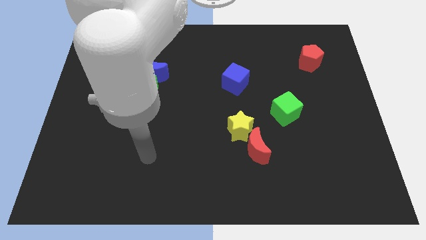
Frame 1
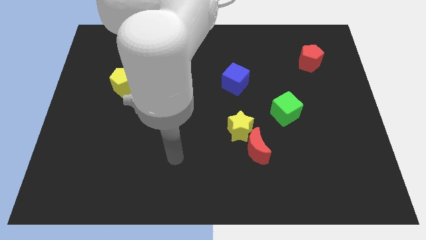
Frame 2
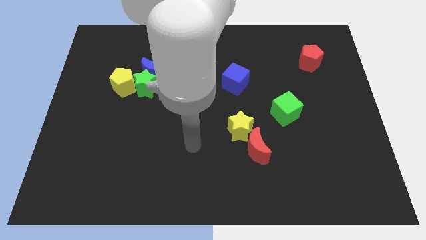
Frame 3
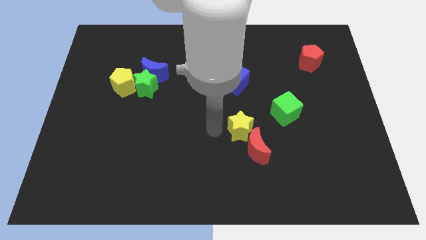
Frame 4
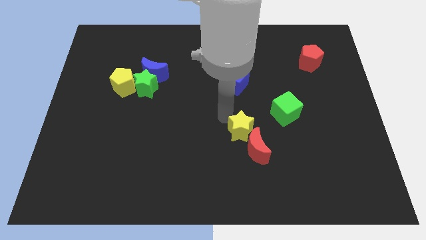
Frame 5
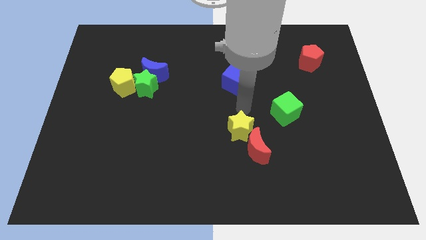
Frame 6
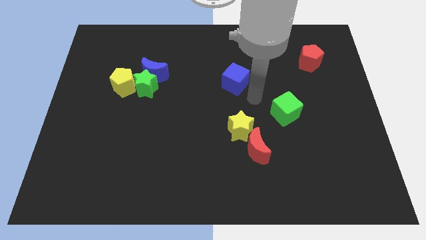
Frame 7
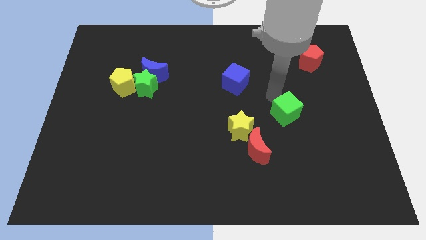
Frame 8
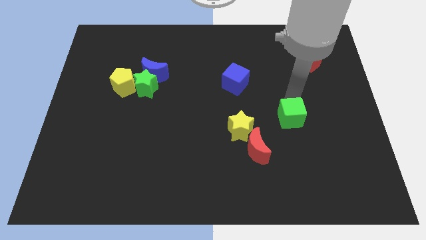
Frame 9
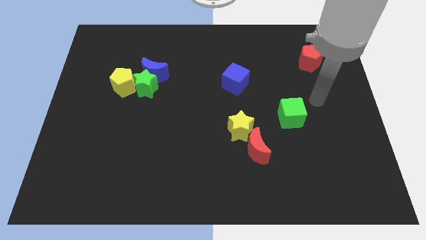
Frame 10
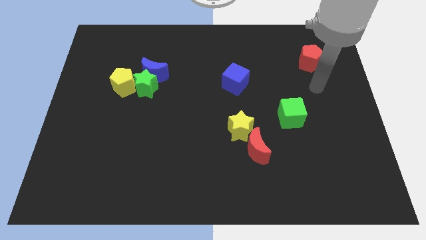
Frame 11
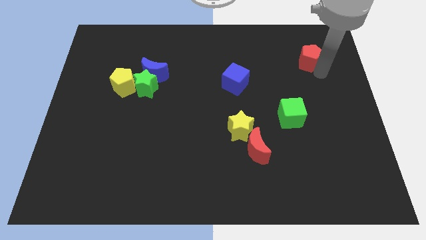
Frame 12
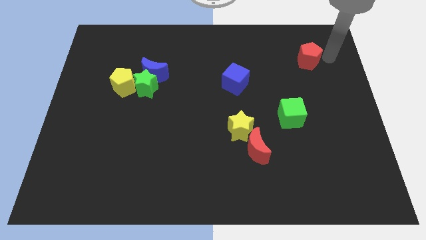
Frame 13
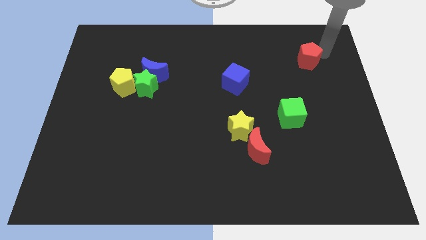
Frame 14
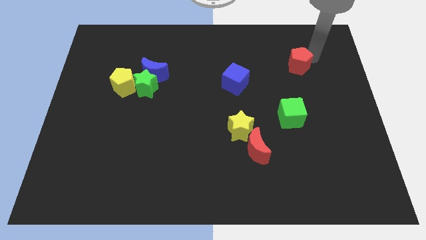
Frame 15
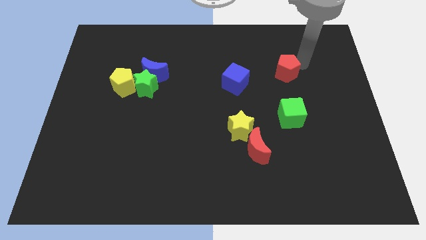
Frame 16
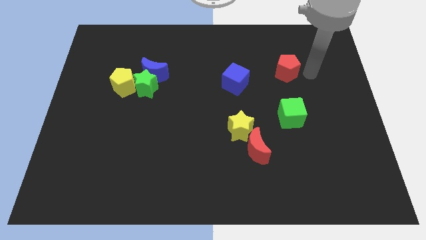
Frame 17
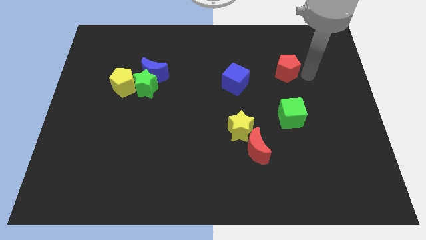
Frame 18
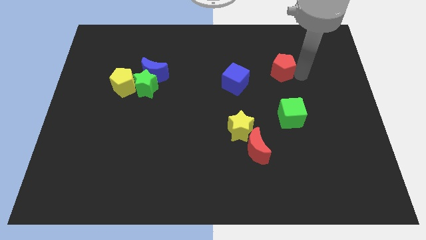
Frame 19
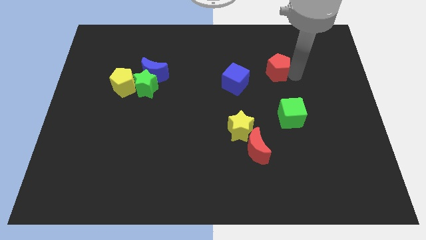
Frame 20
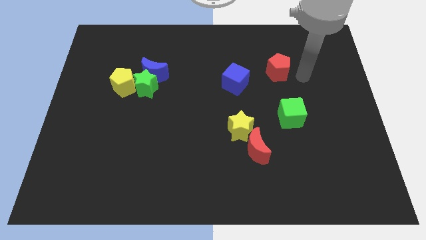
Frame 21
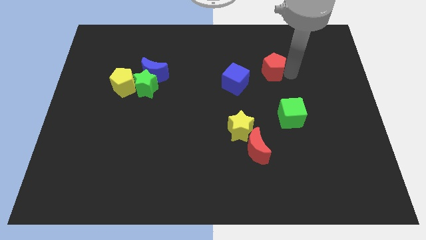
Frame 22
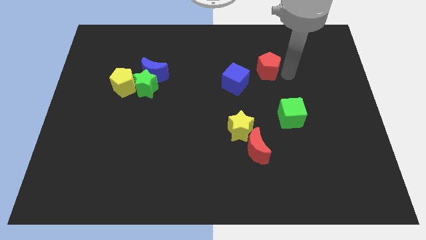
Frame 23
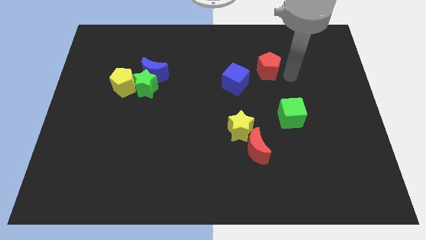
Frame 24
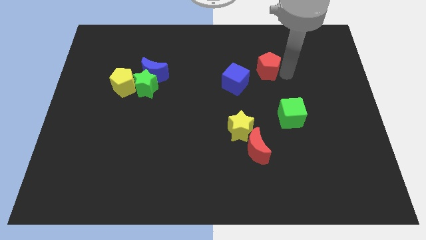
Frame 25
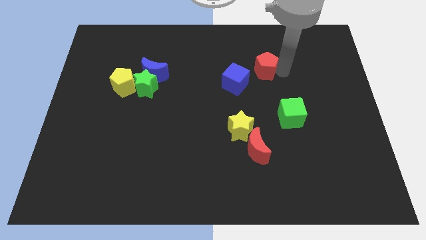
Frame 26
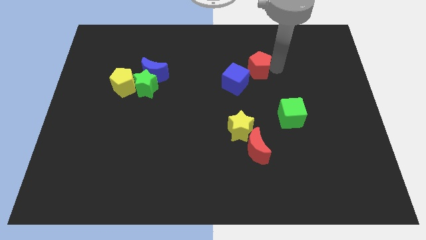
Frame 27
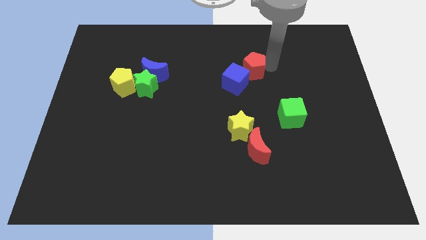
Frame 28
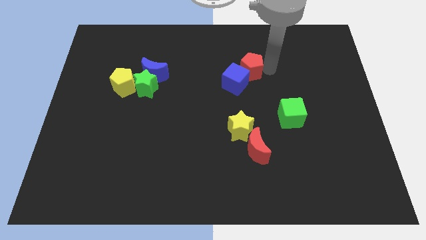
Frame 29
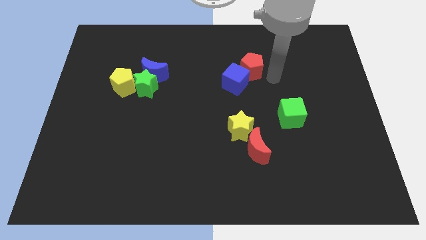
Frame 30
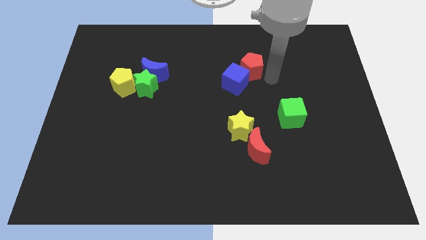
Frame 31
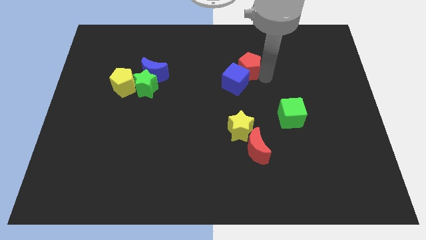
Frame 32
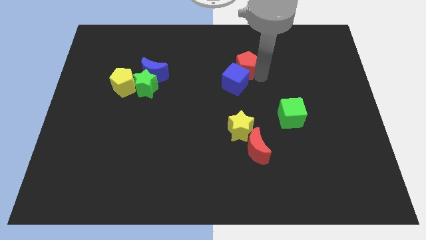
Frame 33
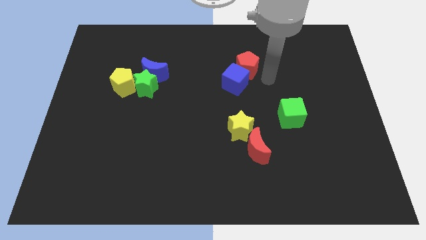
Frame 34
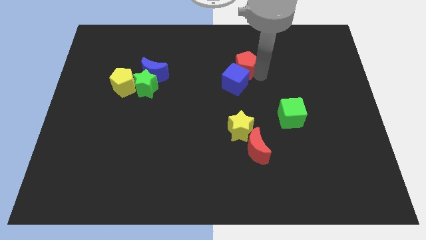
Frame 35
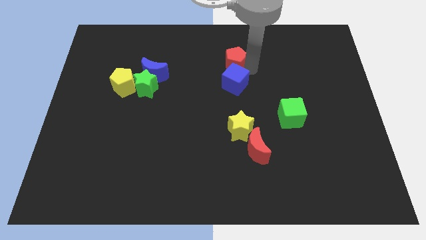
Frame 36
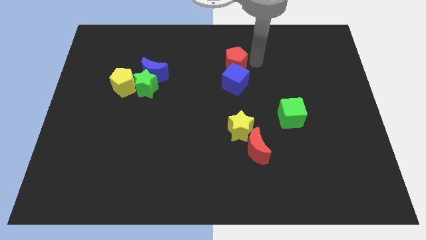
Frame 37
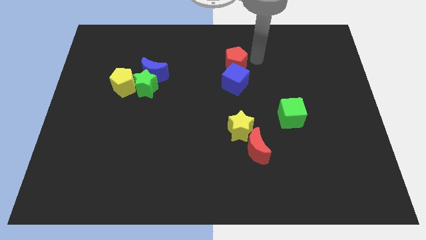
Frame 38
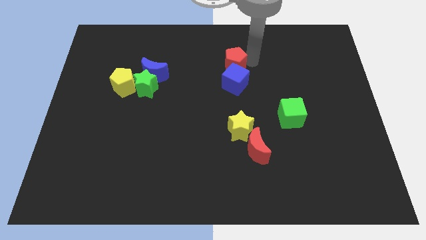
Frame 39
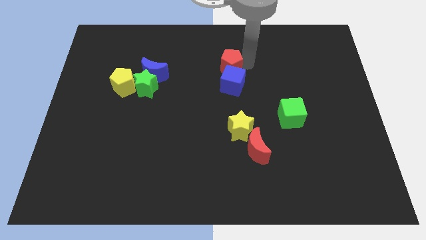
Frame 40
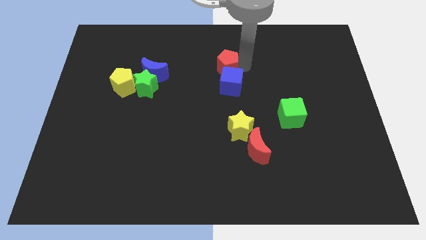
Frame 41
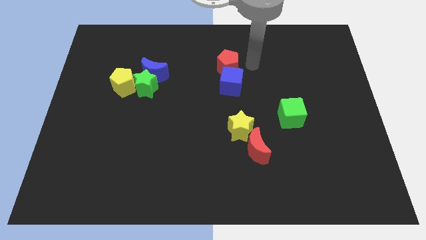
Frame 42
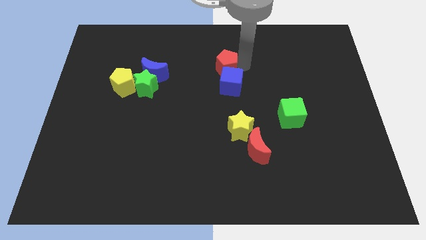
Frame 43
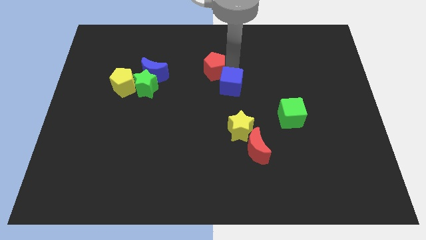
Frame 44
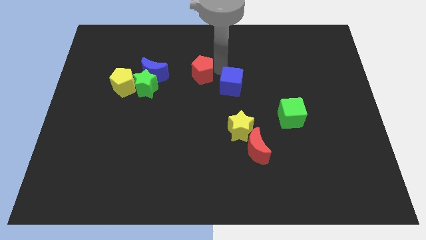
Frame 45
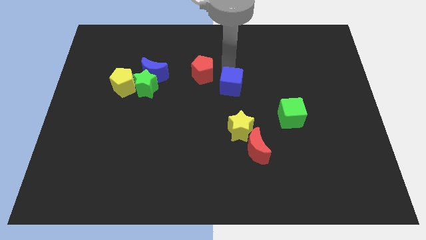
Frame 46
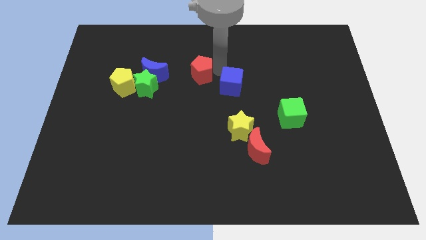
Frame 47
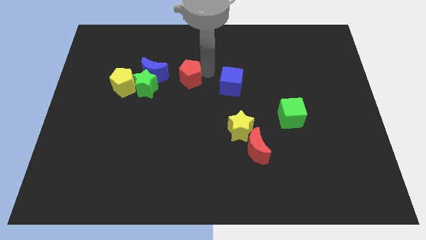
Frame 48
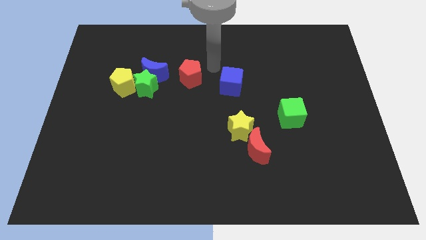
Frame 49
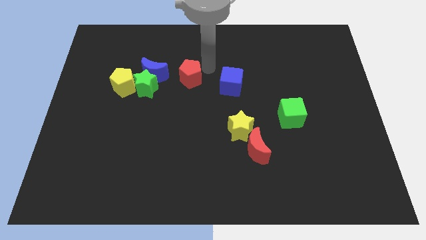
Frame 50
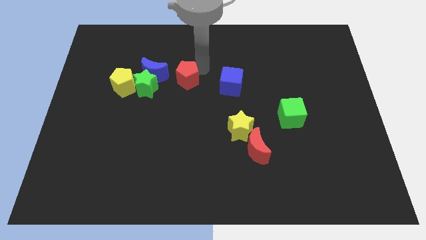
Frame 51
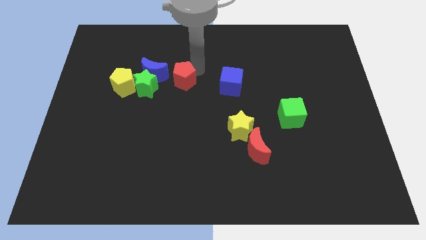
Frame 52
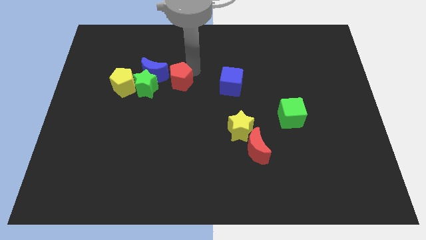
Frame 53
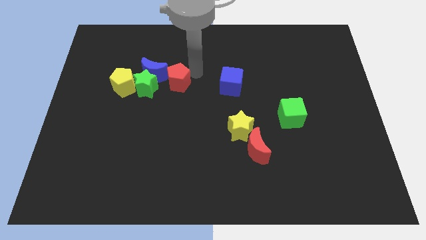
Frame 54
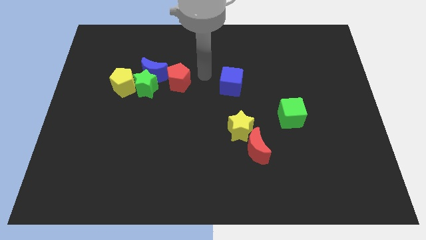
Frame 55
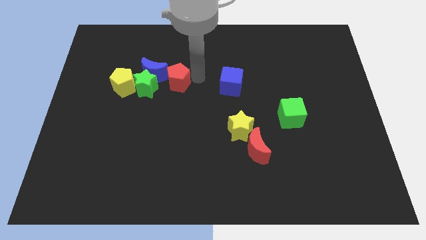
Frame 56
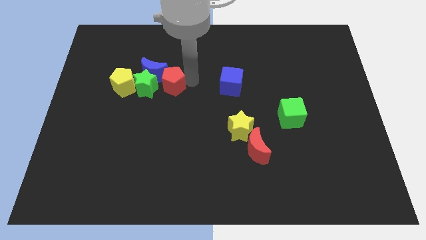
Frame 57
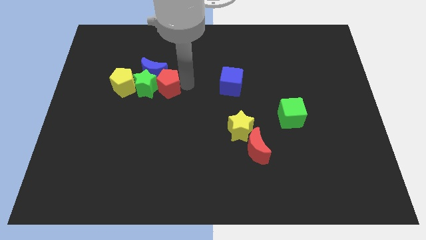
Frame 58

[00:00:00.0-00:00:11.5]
put the red pentagon towards the green star

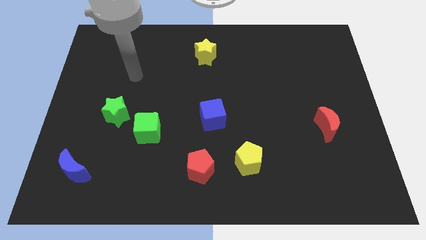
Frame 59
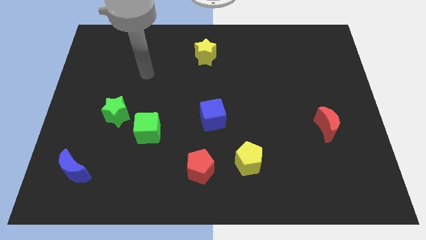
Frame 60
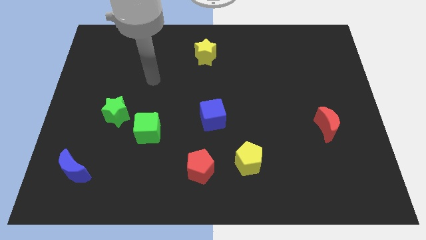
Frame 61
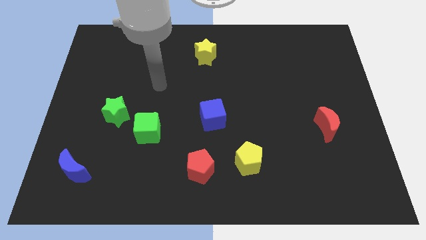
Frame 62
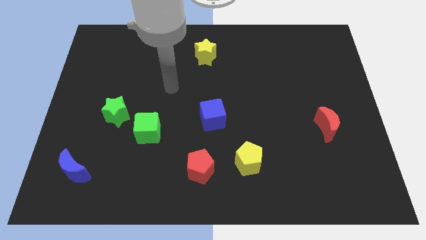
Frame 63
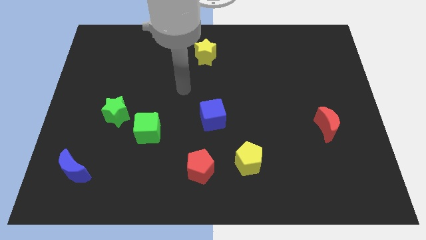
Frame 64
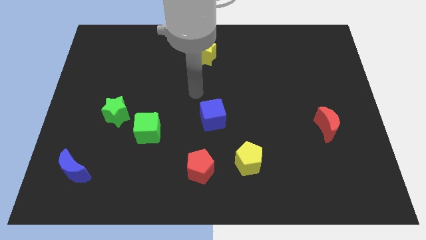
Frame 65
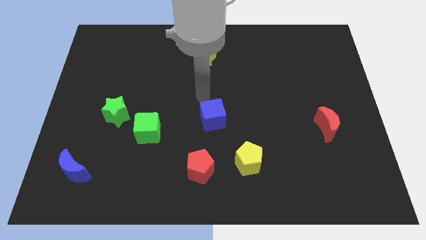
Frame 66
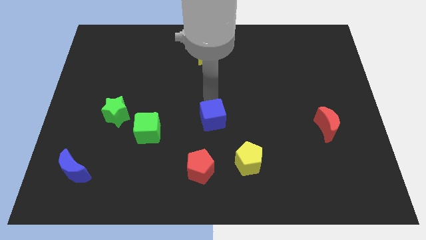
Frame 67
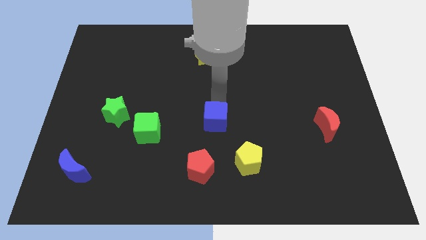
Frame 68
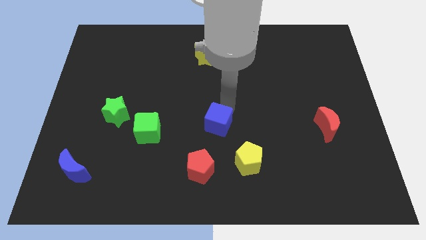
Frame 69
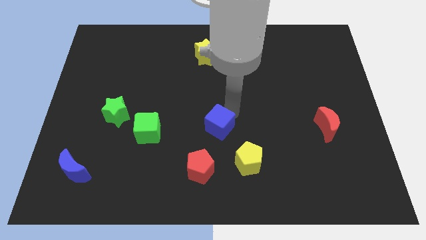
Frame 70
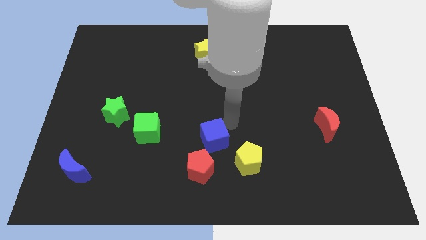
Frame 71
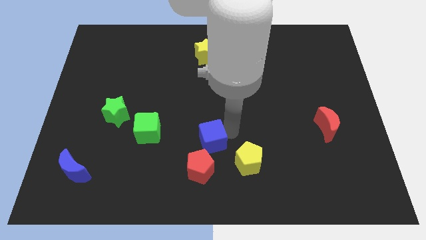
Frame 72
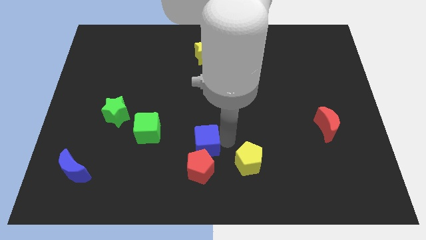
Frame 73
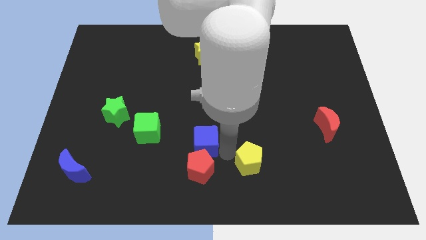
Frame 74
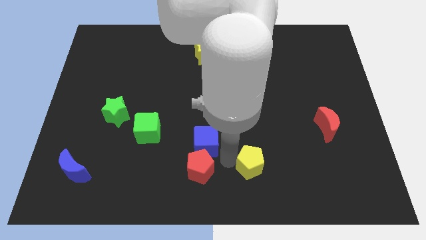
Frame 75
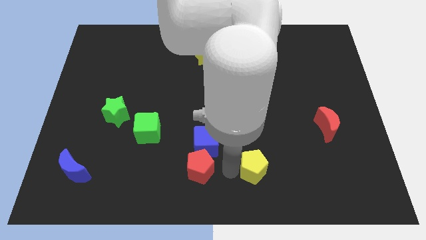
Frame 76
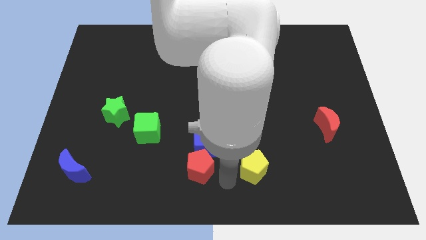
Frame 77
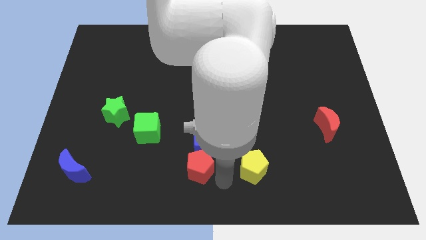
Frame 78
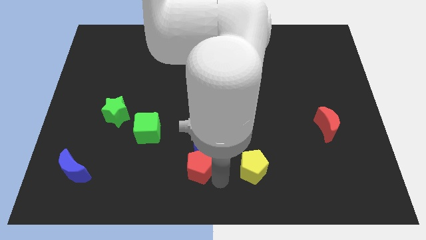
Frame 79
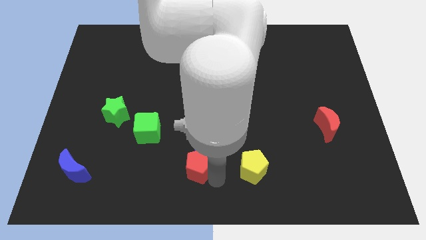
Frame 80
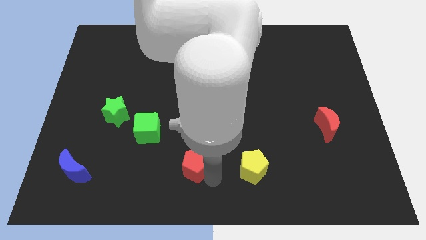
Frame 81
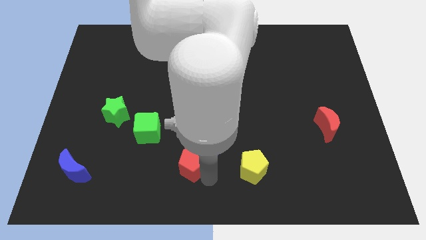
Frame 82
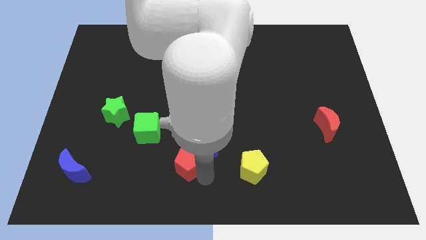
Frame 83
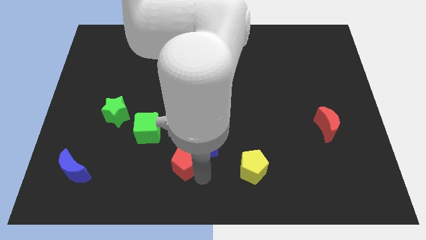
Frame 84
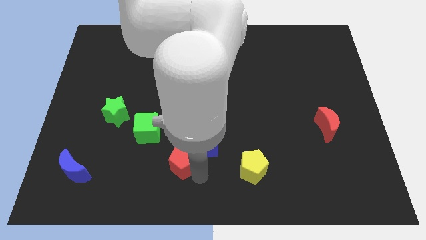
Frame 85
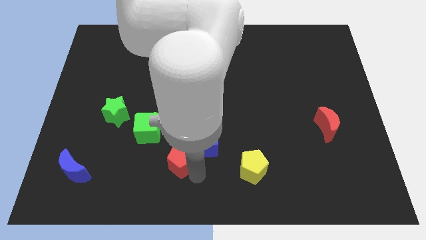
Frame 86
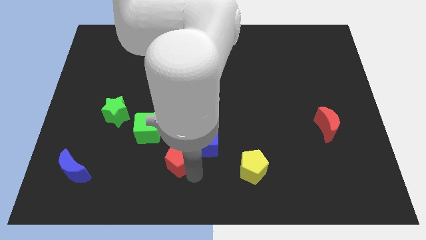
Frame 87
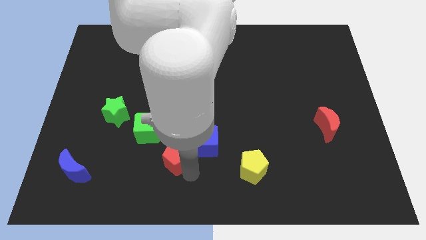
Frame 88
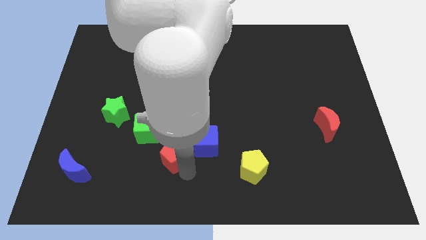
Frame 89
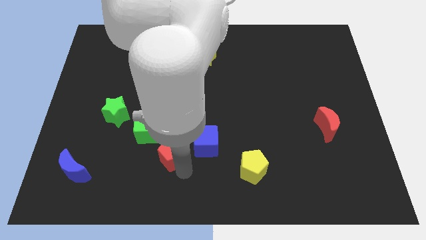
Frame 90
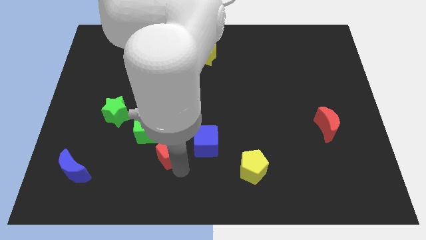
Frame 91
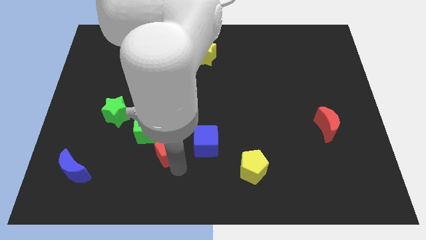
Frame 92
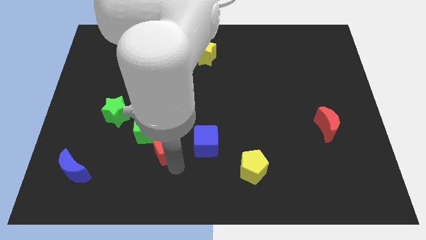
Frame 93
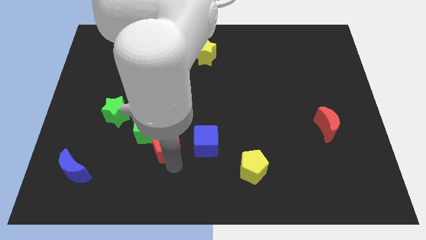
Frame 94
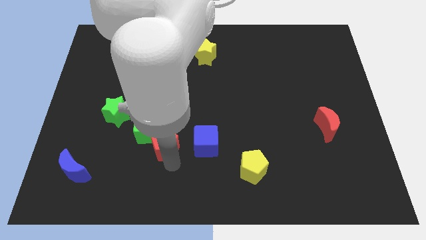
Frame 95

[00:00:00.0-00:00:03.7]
move the red pentagon close to the green cube
